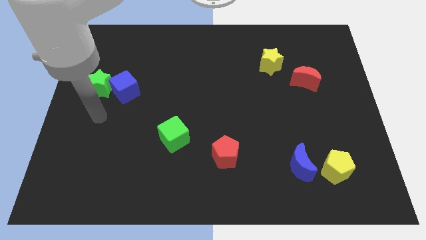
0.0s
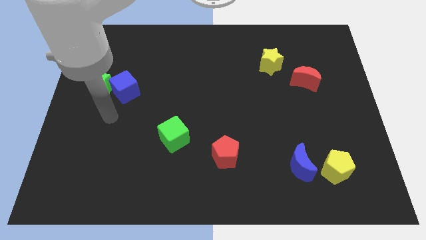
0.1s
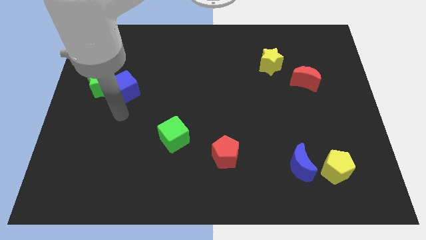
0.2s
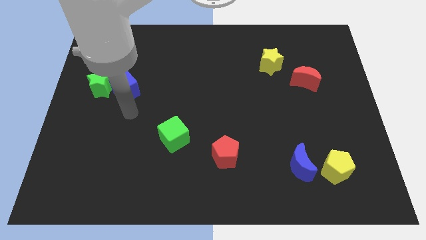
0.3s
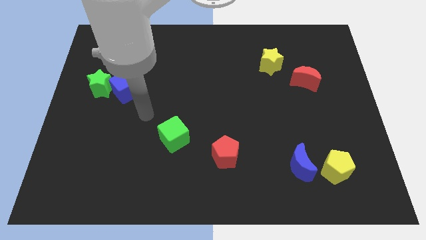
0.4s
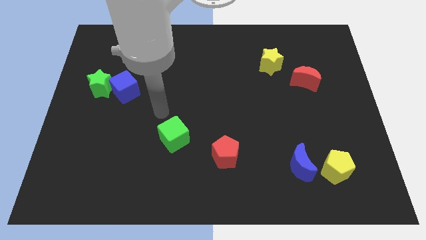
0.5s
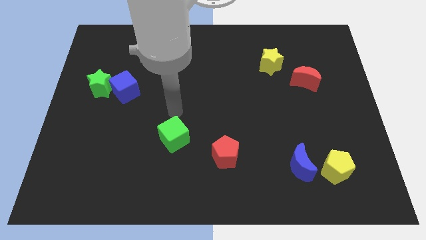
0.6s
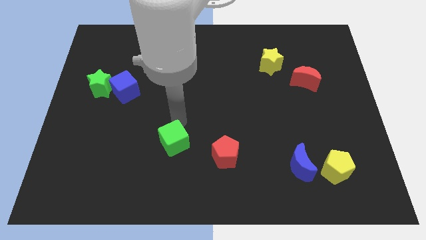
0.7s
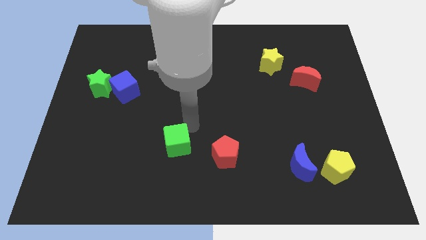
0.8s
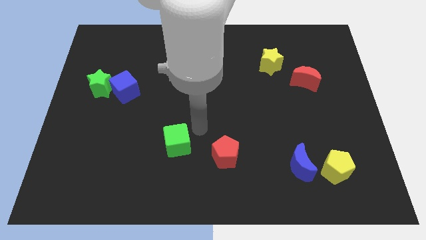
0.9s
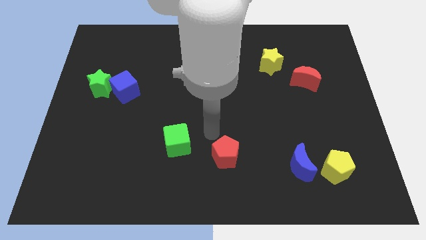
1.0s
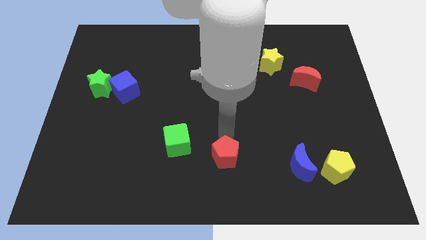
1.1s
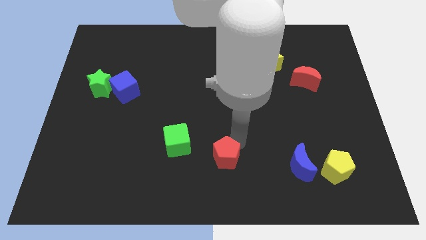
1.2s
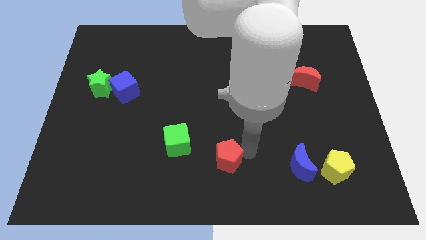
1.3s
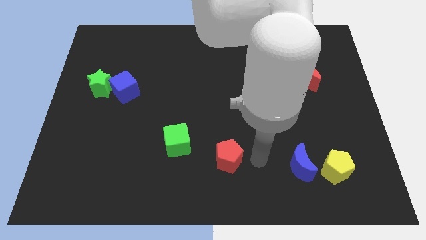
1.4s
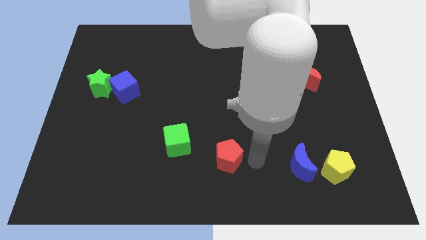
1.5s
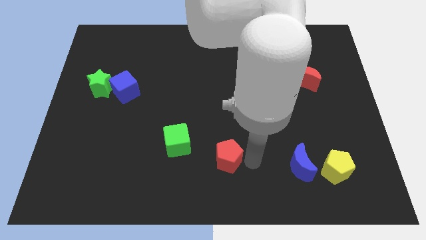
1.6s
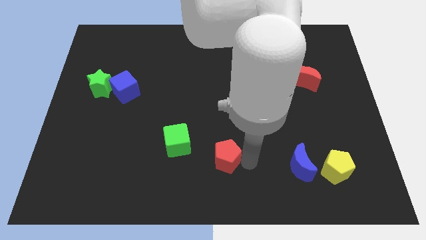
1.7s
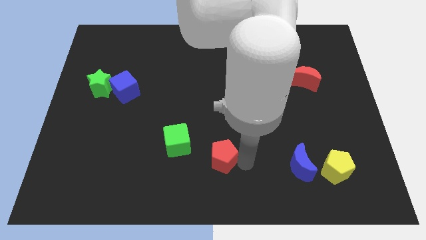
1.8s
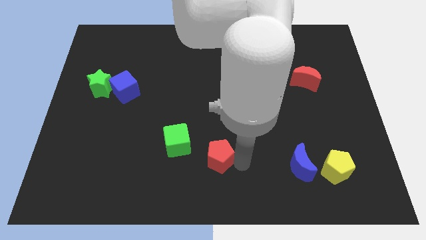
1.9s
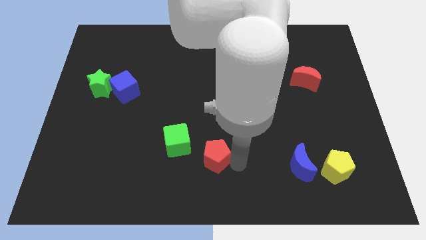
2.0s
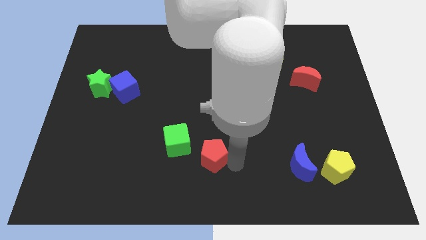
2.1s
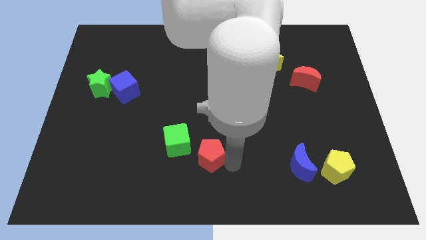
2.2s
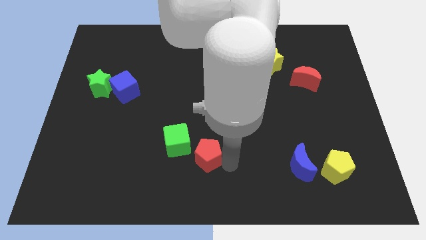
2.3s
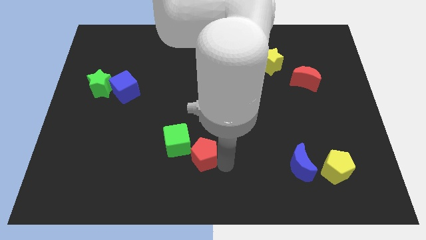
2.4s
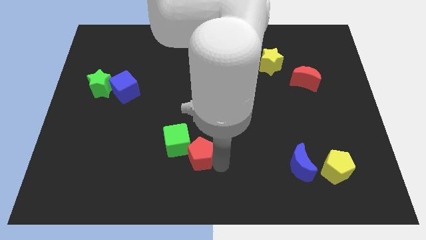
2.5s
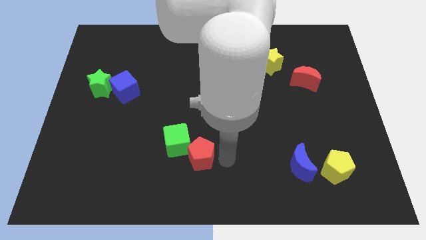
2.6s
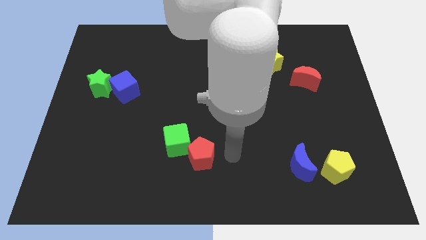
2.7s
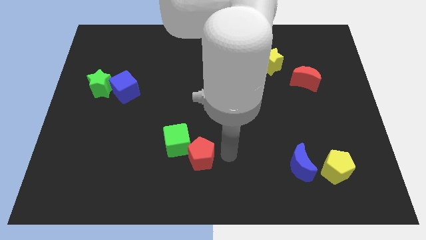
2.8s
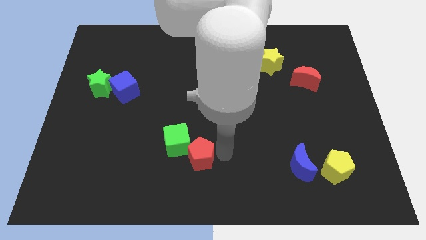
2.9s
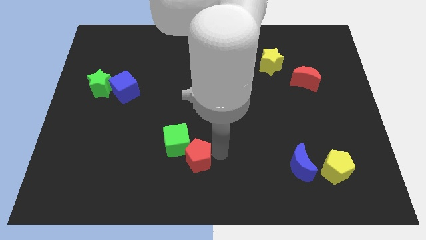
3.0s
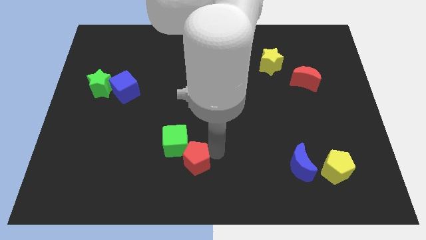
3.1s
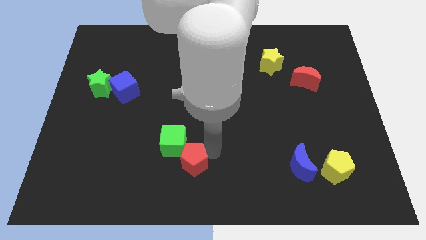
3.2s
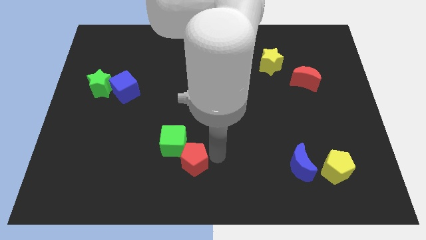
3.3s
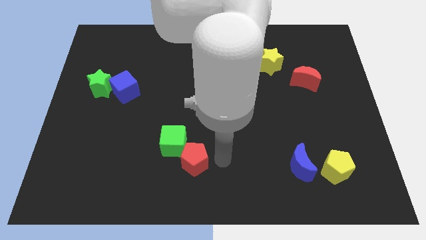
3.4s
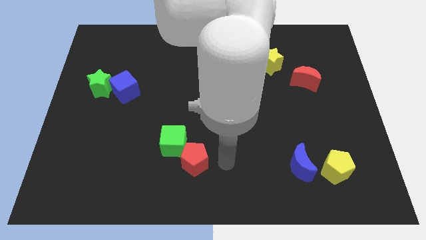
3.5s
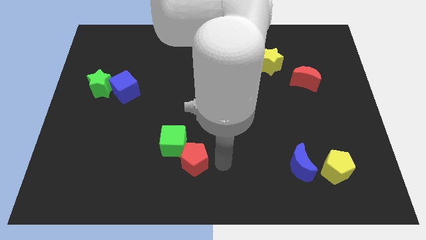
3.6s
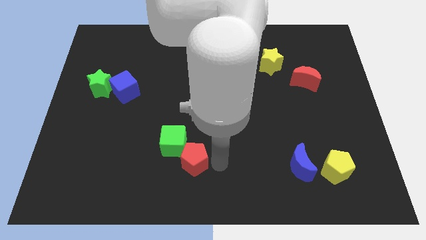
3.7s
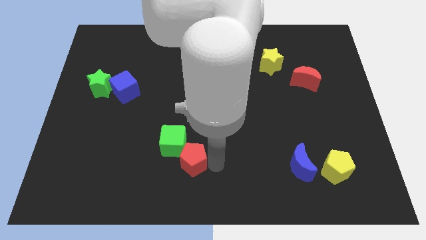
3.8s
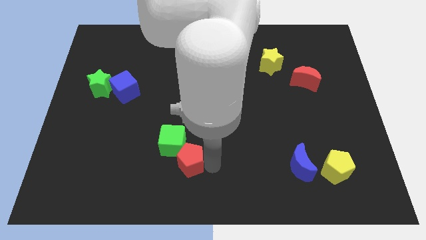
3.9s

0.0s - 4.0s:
slightly push the red pentagon to the left

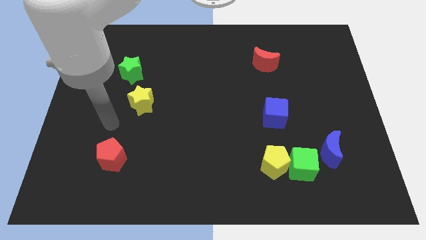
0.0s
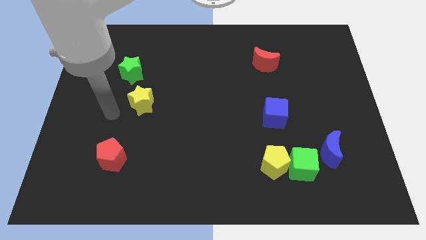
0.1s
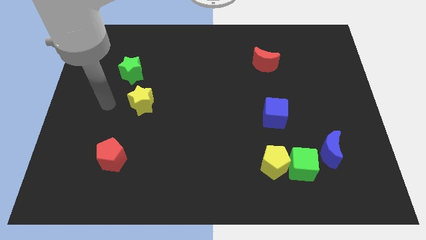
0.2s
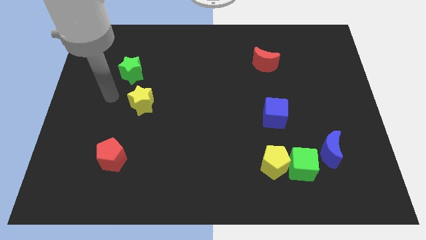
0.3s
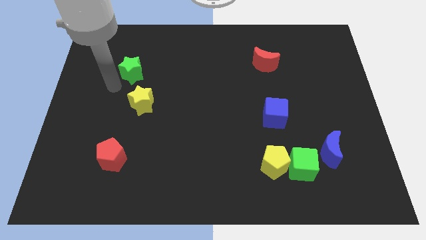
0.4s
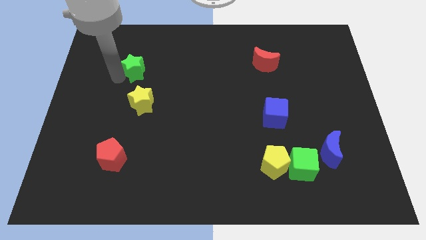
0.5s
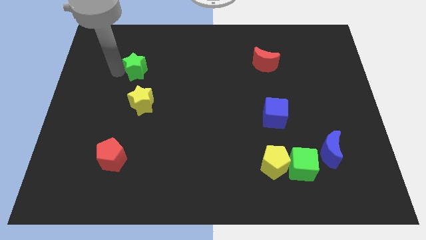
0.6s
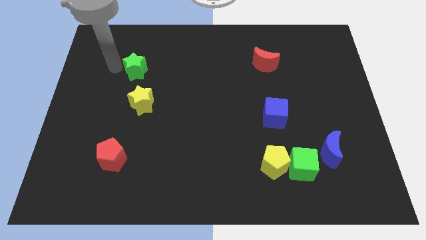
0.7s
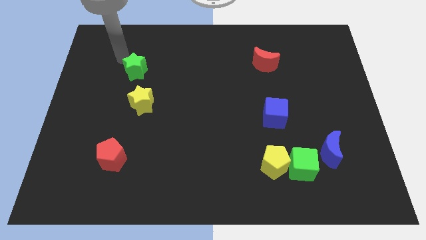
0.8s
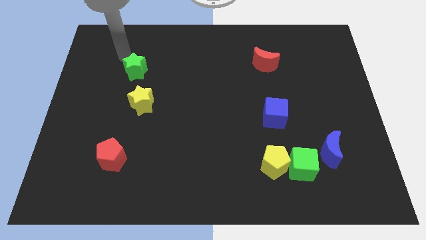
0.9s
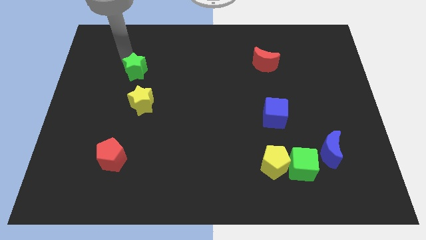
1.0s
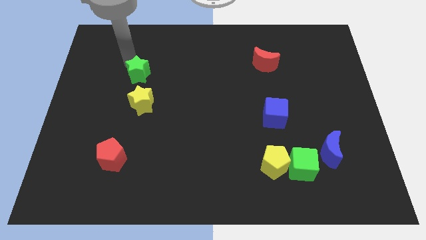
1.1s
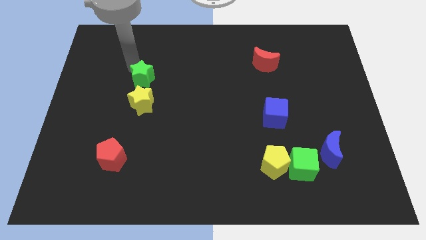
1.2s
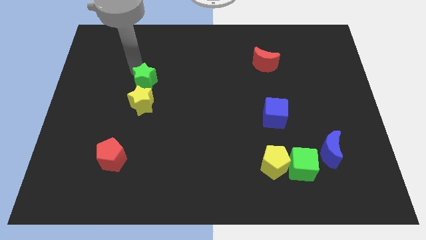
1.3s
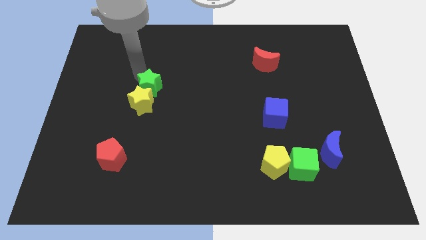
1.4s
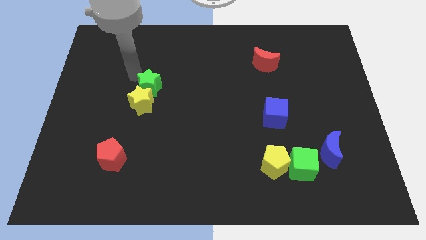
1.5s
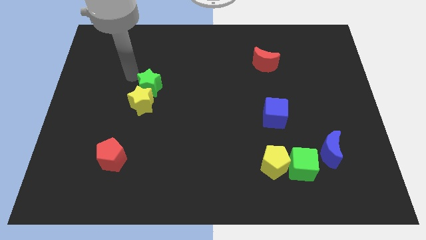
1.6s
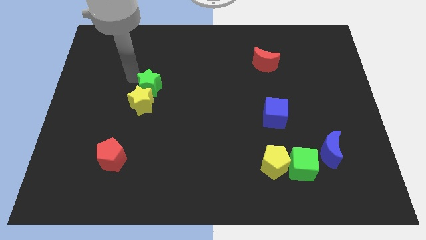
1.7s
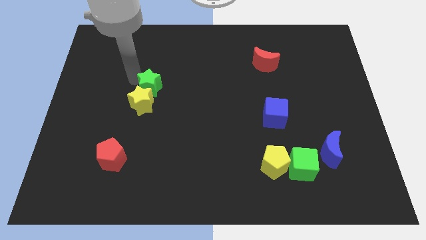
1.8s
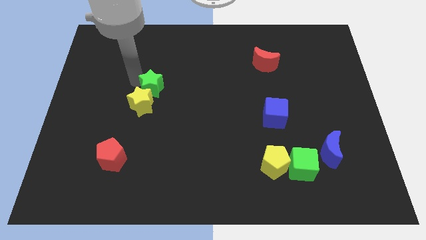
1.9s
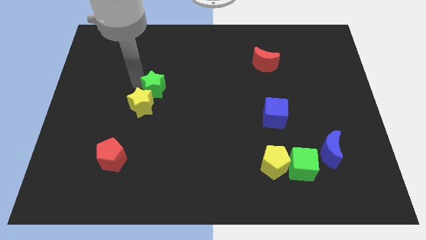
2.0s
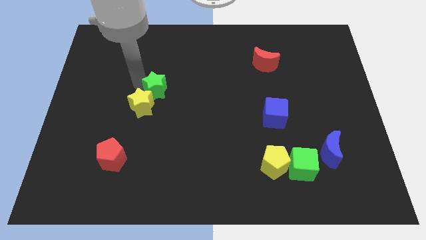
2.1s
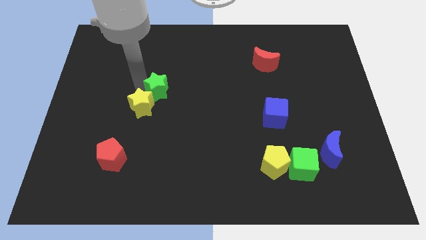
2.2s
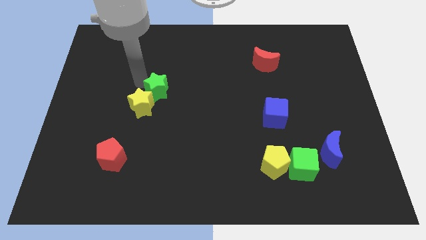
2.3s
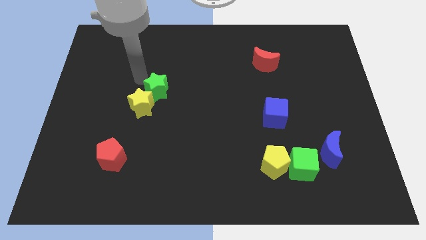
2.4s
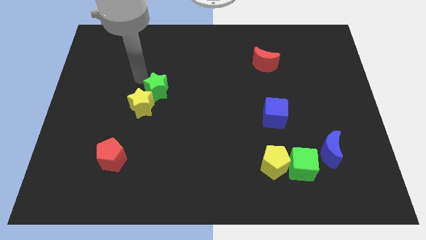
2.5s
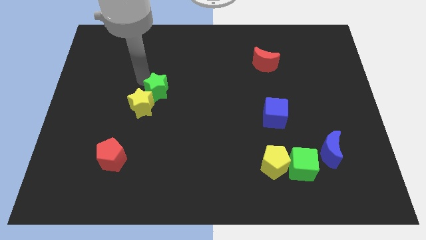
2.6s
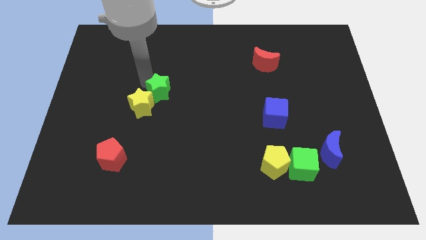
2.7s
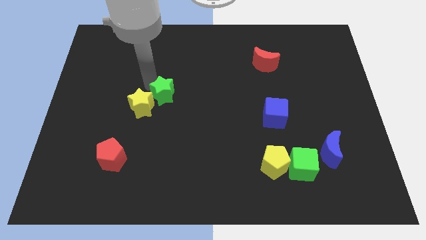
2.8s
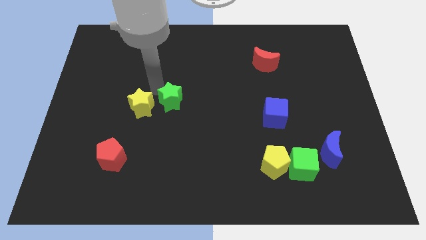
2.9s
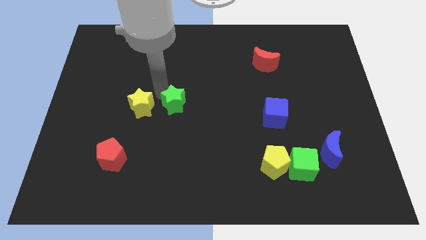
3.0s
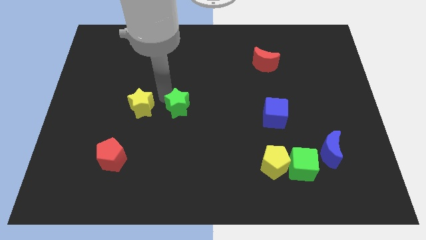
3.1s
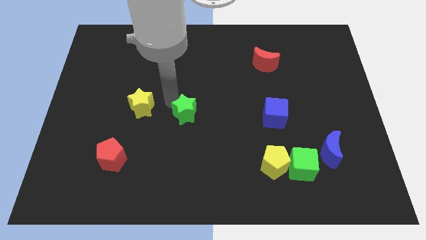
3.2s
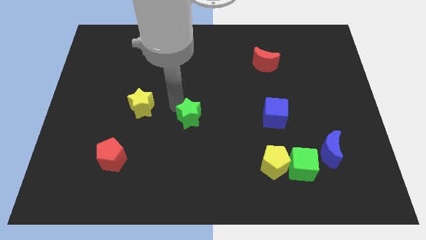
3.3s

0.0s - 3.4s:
push the green star downwards and to the right diagonally

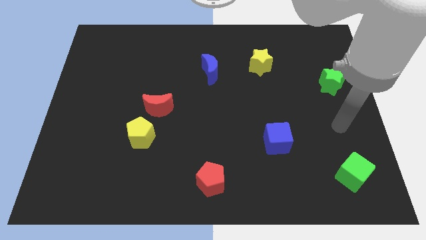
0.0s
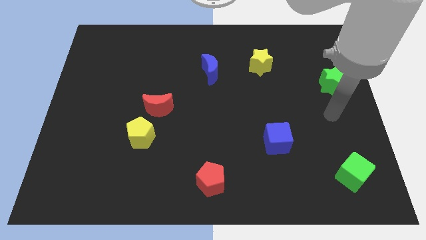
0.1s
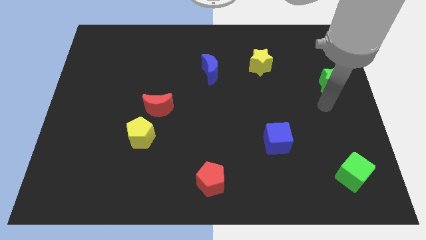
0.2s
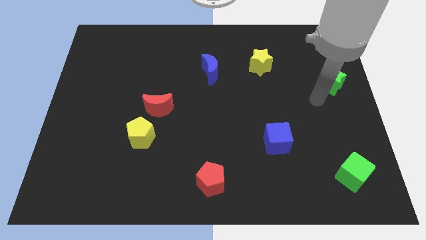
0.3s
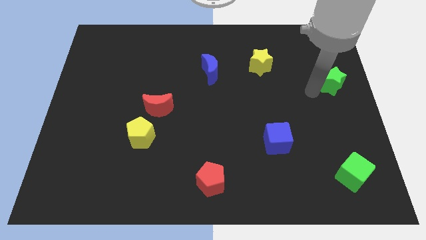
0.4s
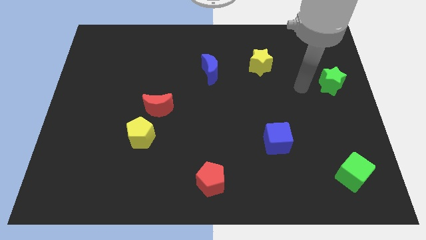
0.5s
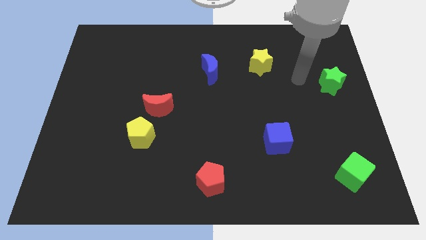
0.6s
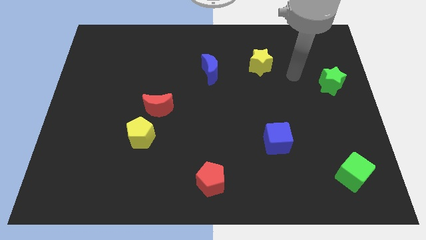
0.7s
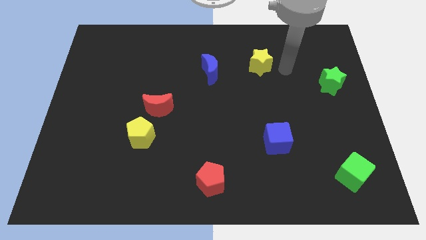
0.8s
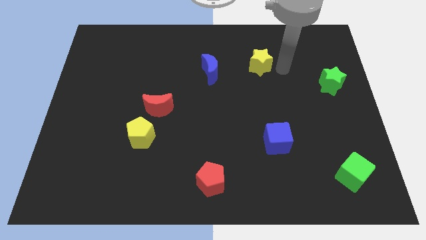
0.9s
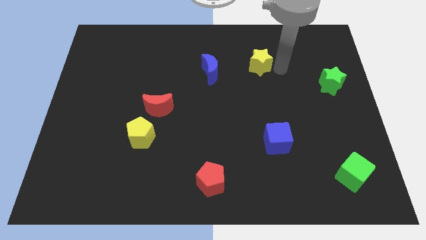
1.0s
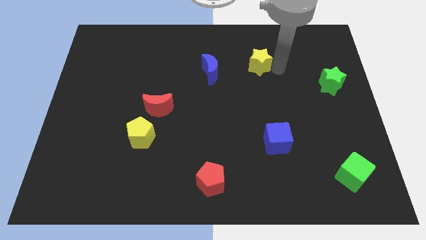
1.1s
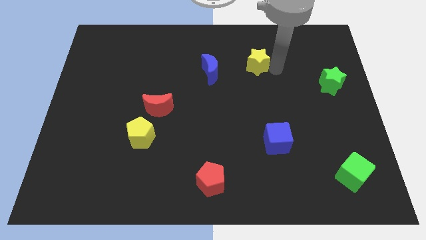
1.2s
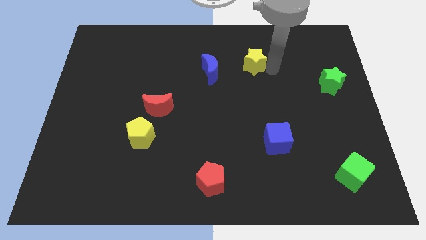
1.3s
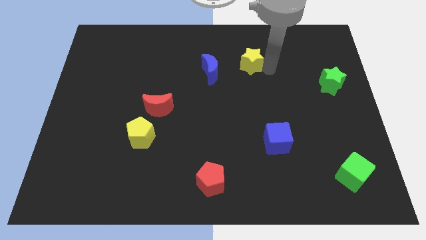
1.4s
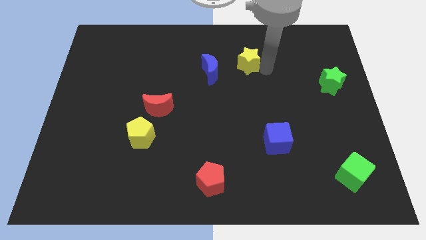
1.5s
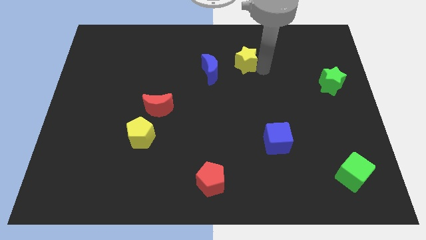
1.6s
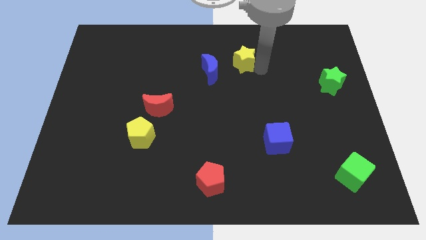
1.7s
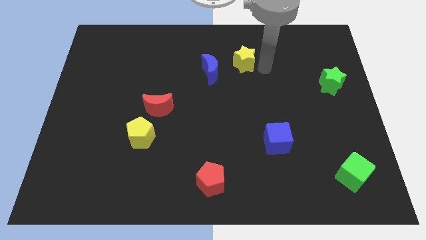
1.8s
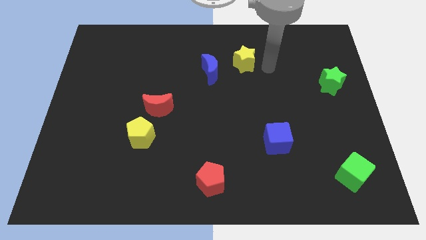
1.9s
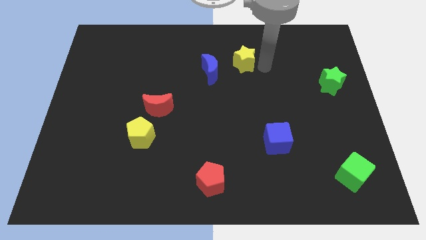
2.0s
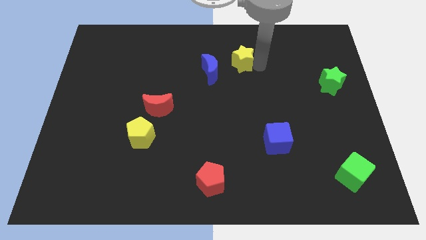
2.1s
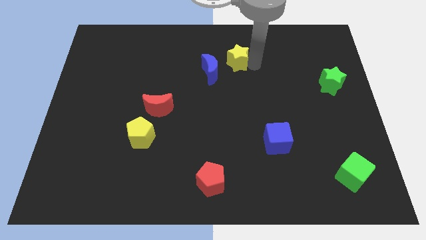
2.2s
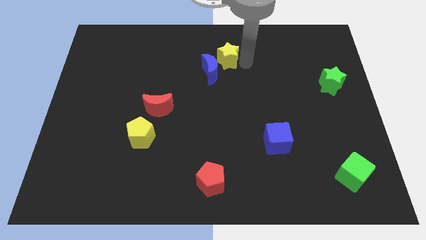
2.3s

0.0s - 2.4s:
move the yellow star to the left somewhat
